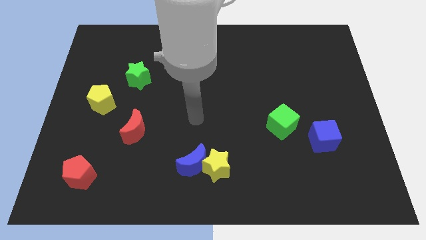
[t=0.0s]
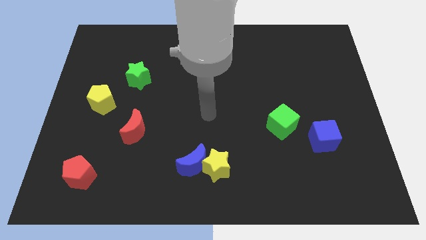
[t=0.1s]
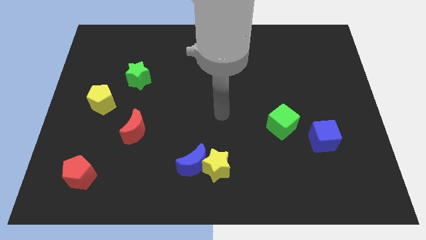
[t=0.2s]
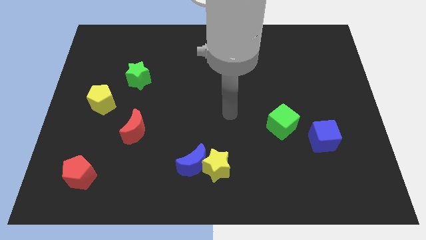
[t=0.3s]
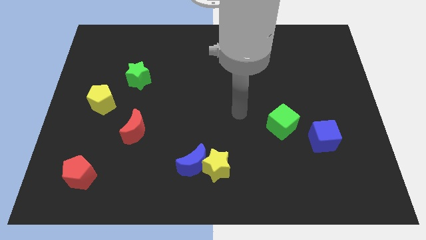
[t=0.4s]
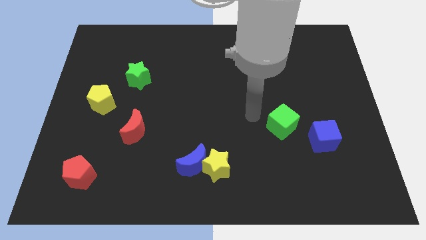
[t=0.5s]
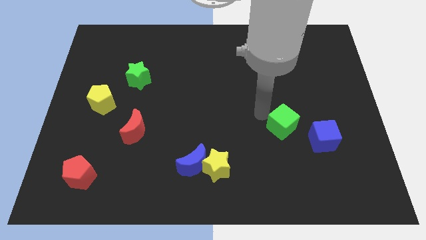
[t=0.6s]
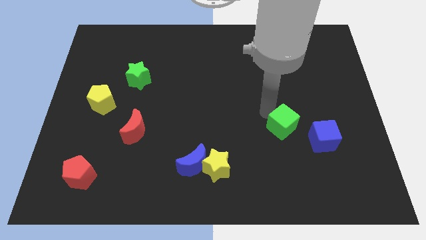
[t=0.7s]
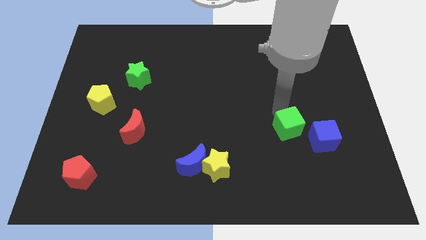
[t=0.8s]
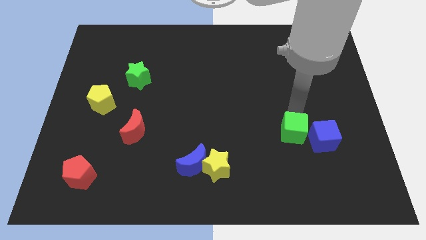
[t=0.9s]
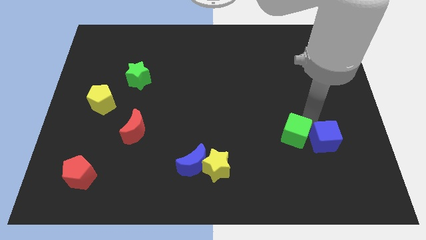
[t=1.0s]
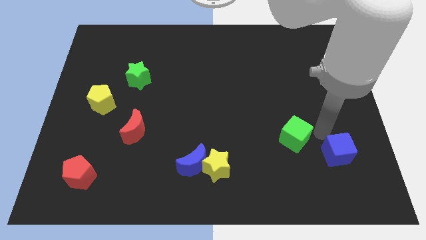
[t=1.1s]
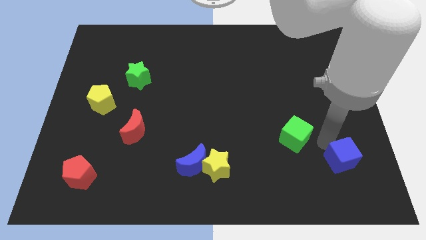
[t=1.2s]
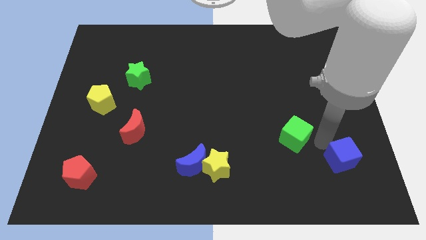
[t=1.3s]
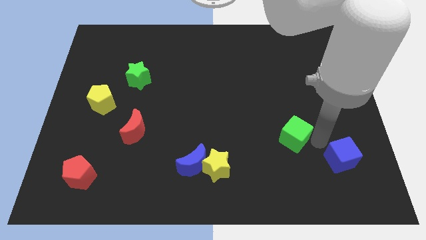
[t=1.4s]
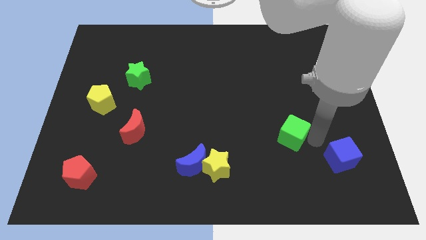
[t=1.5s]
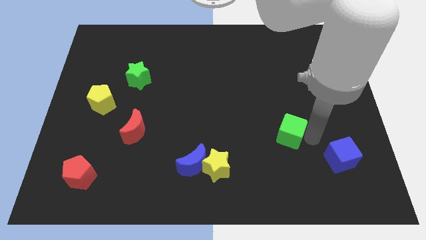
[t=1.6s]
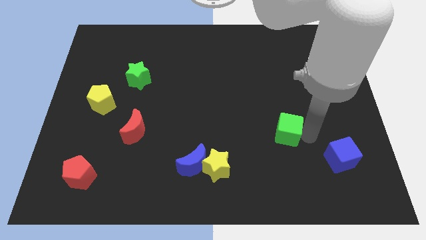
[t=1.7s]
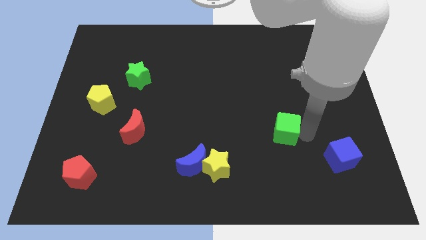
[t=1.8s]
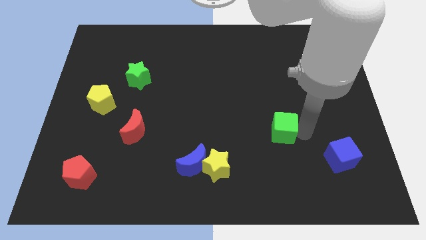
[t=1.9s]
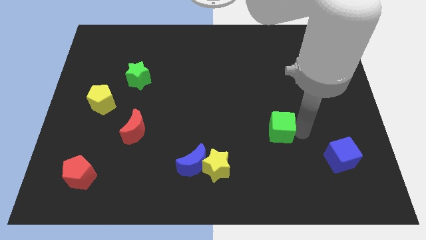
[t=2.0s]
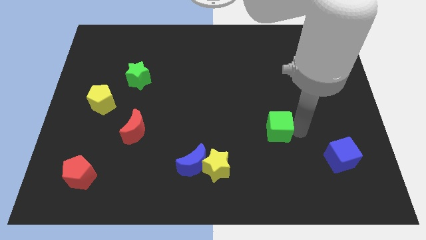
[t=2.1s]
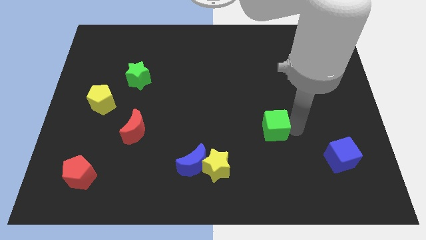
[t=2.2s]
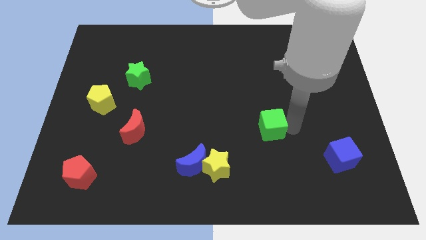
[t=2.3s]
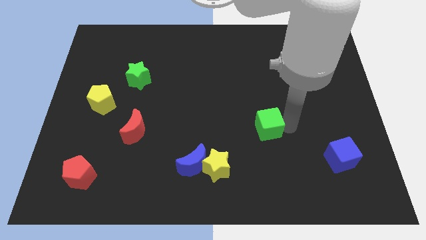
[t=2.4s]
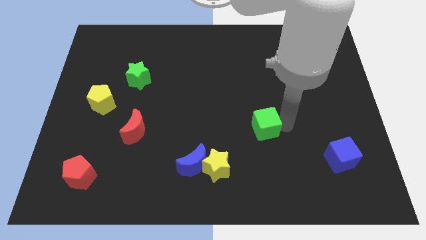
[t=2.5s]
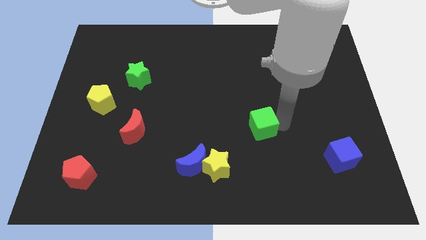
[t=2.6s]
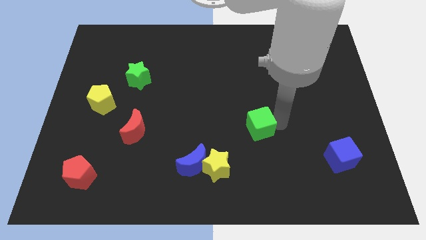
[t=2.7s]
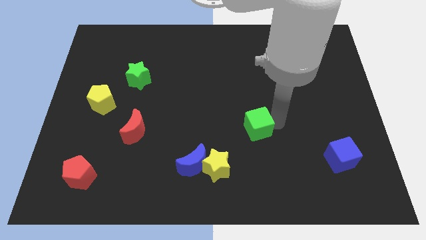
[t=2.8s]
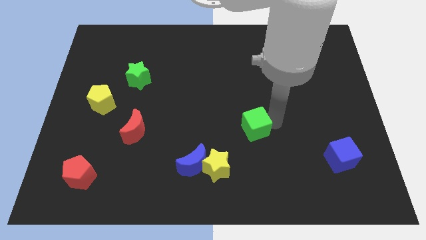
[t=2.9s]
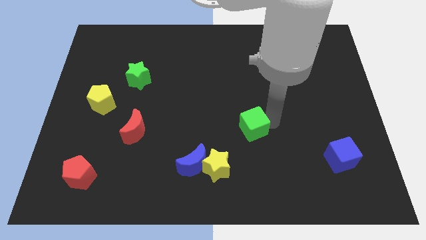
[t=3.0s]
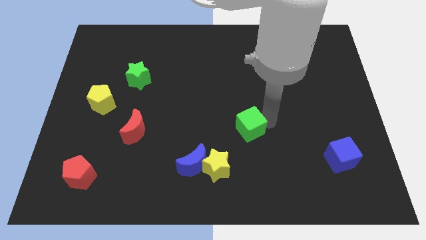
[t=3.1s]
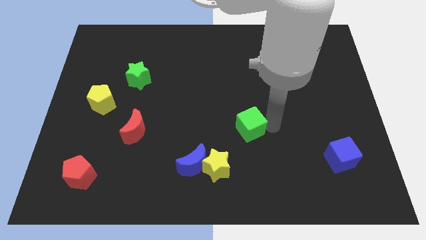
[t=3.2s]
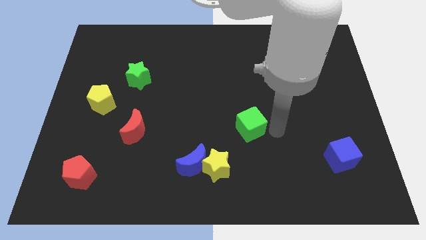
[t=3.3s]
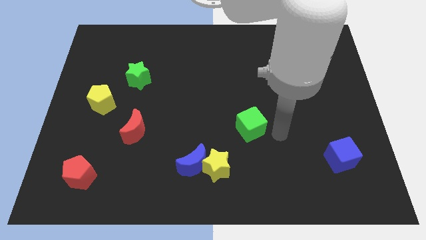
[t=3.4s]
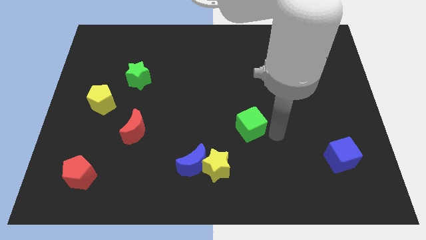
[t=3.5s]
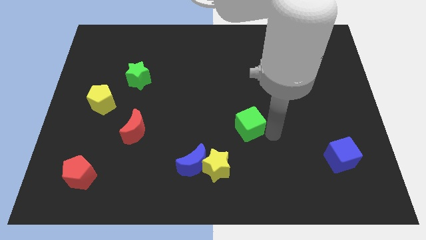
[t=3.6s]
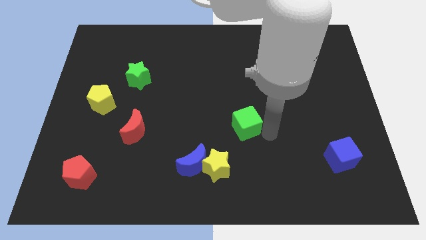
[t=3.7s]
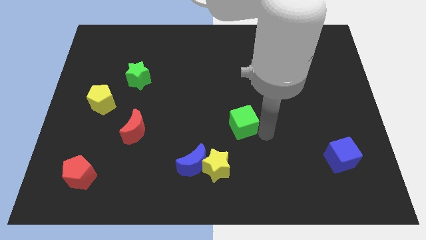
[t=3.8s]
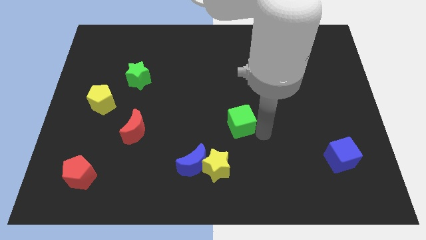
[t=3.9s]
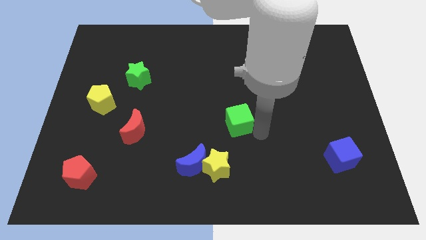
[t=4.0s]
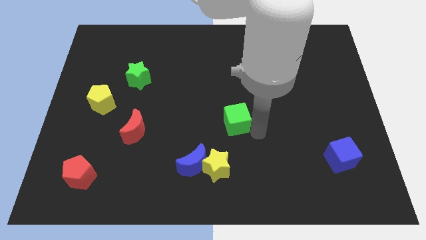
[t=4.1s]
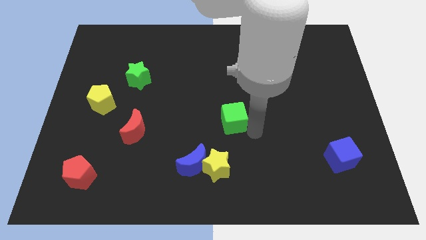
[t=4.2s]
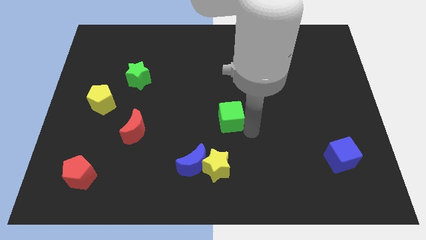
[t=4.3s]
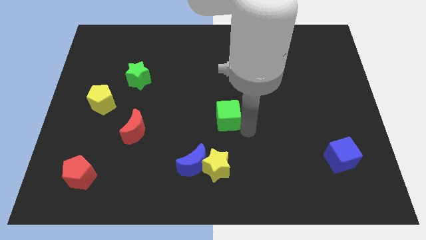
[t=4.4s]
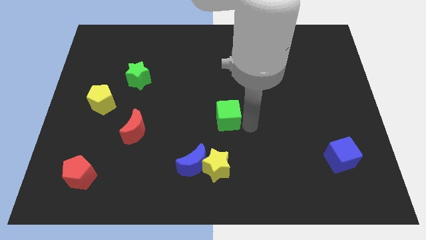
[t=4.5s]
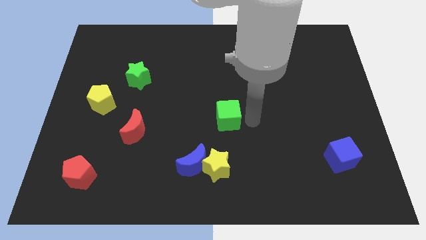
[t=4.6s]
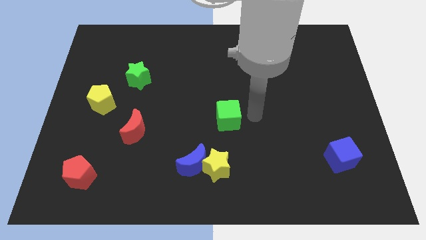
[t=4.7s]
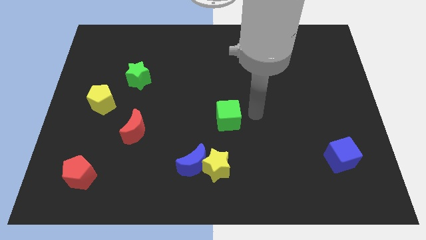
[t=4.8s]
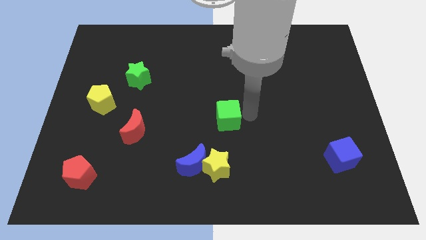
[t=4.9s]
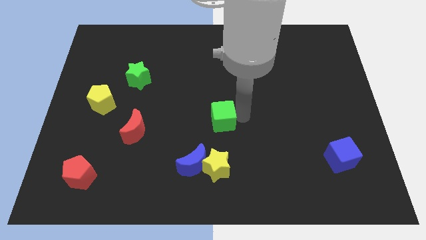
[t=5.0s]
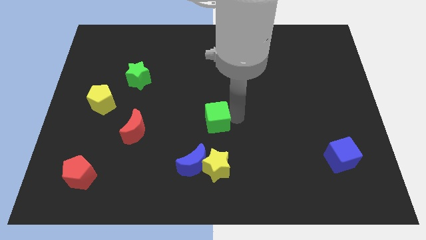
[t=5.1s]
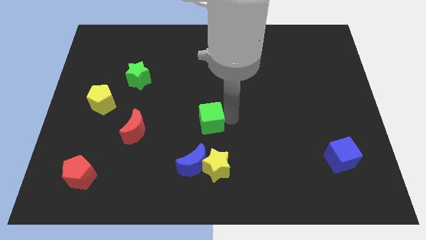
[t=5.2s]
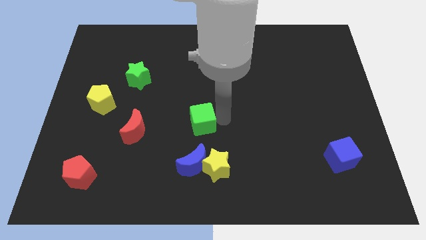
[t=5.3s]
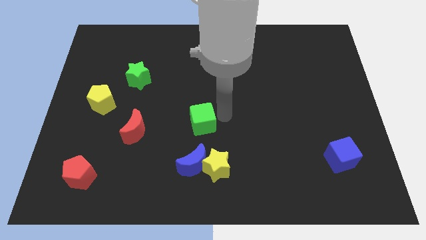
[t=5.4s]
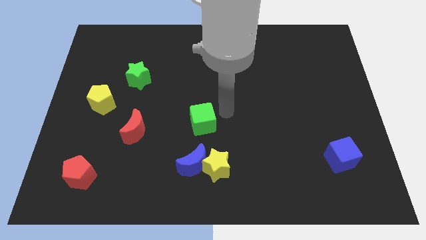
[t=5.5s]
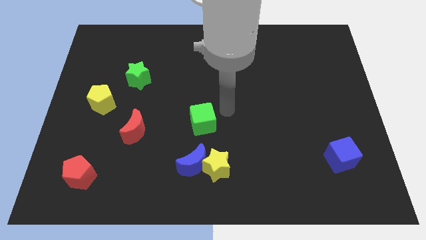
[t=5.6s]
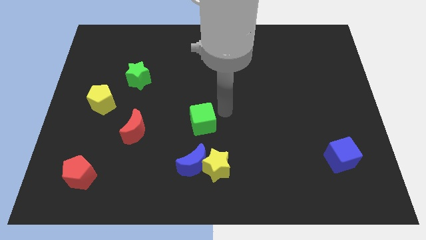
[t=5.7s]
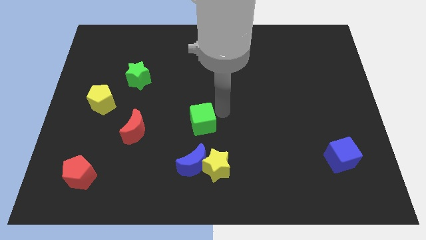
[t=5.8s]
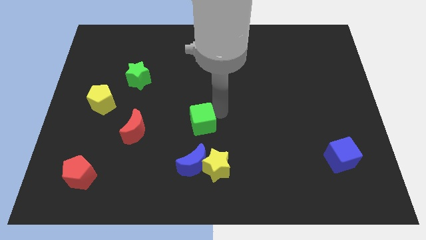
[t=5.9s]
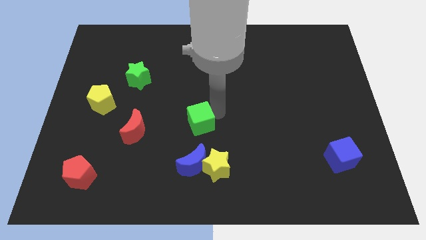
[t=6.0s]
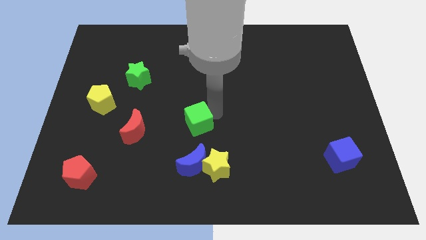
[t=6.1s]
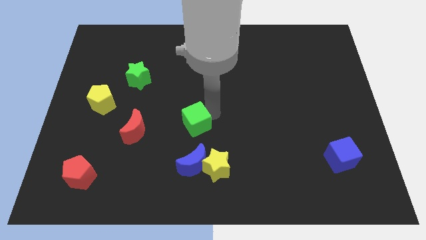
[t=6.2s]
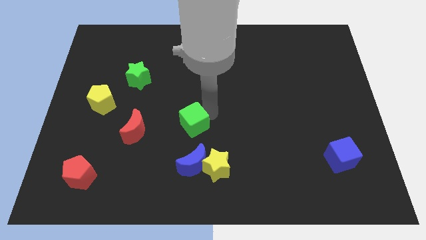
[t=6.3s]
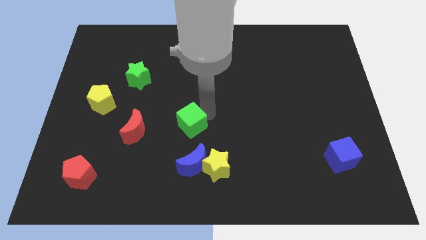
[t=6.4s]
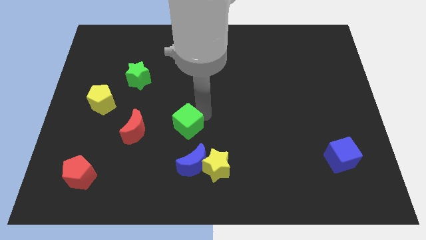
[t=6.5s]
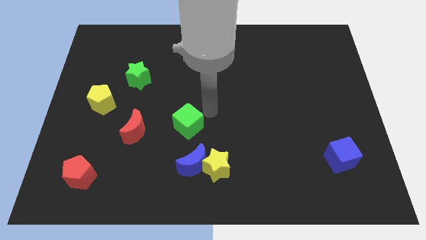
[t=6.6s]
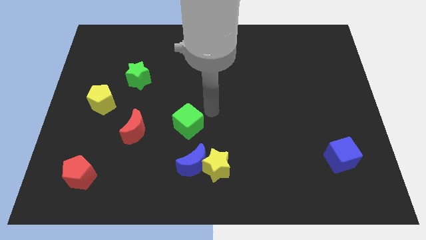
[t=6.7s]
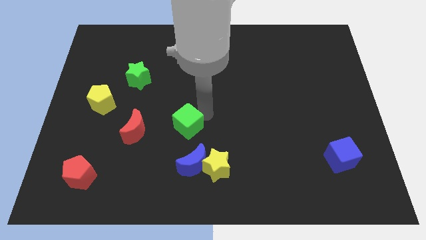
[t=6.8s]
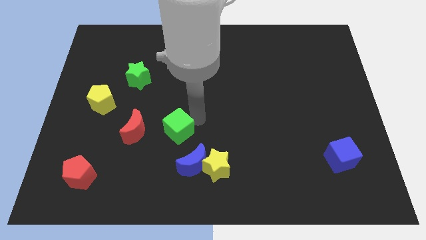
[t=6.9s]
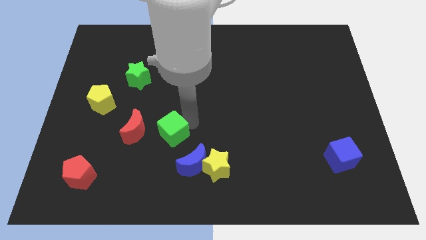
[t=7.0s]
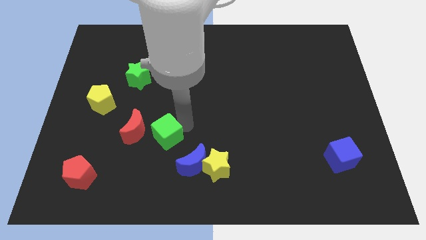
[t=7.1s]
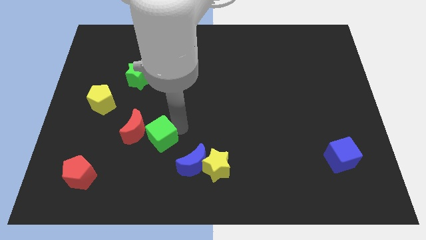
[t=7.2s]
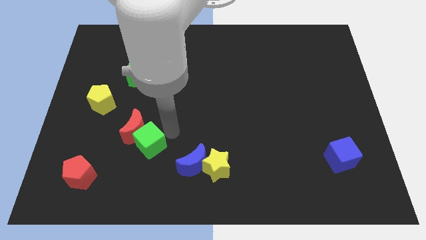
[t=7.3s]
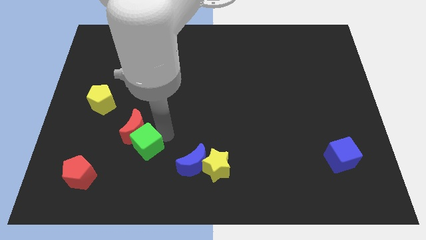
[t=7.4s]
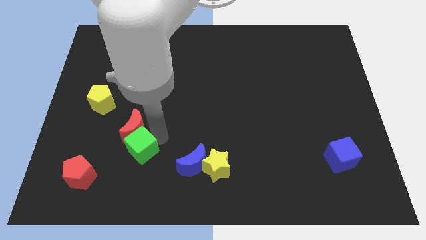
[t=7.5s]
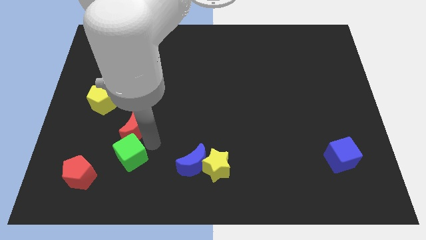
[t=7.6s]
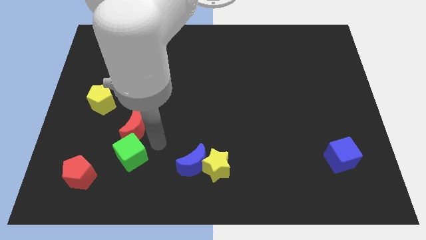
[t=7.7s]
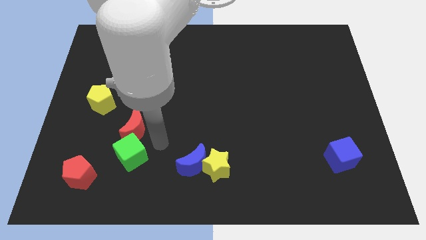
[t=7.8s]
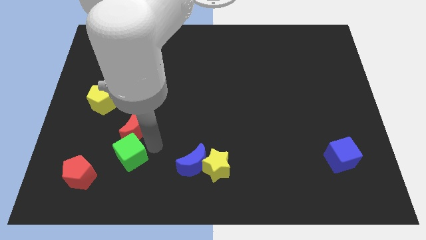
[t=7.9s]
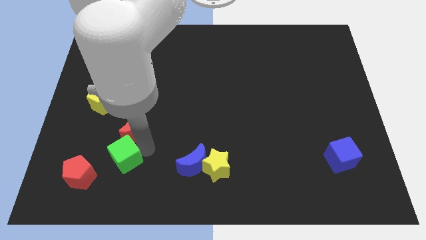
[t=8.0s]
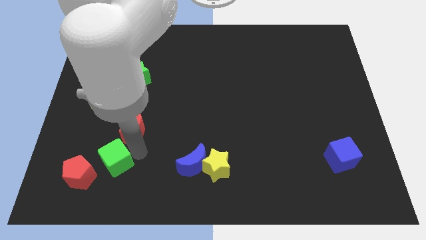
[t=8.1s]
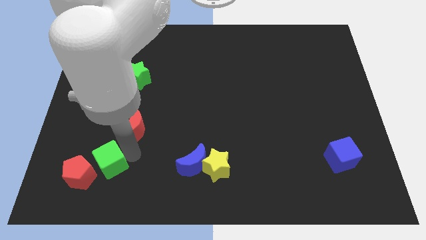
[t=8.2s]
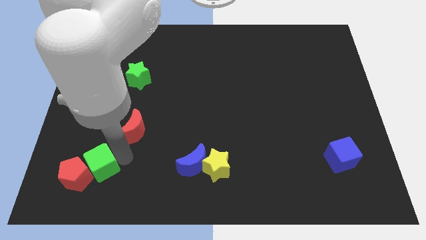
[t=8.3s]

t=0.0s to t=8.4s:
move the green cube next to the red pentagon

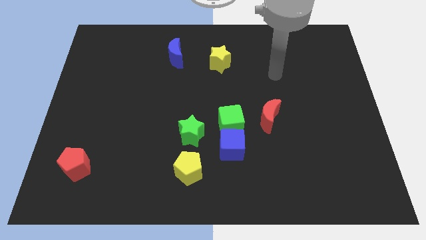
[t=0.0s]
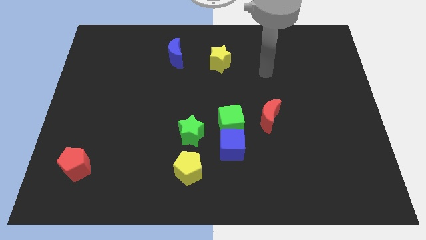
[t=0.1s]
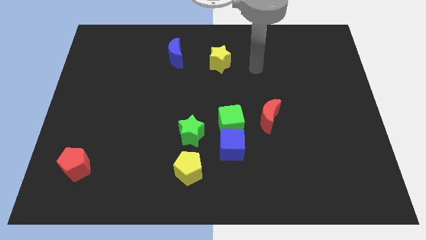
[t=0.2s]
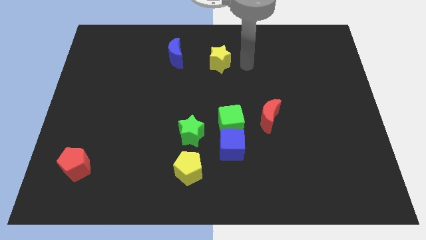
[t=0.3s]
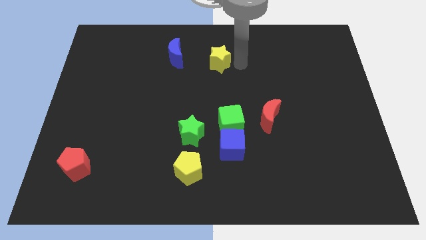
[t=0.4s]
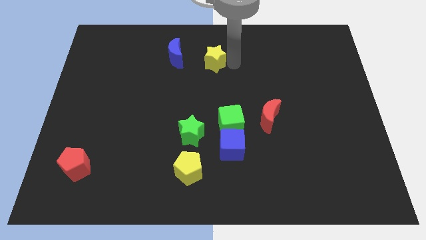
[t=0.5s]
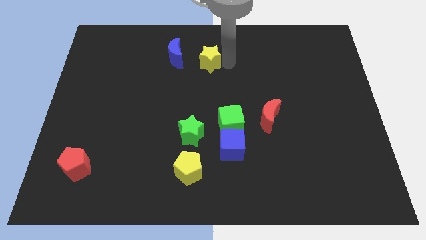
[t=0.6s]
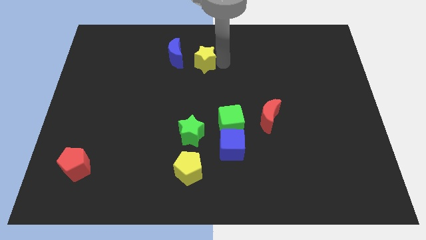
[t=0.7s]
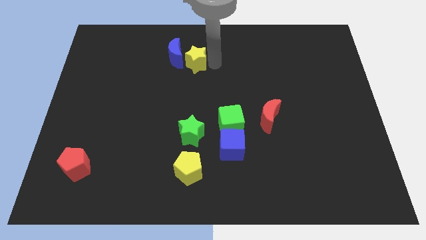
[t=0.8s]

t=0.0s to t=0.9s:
move the yellow star to the blue moon
